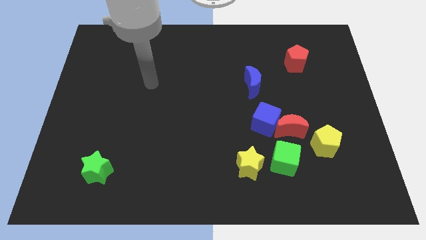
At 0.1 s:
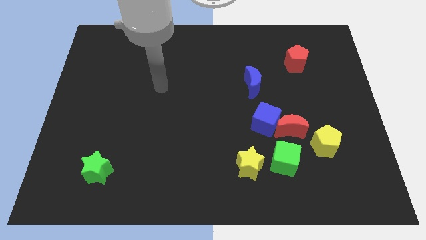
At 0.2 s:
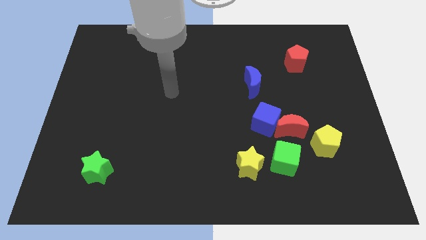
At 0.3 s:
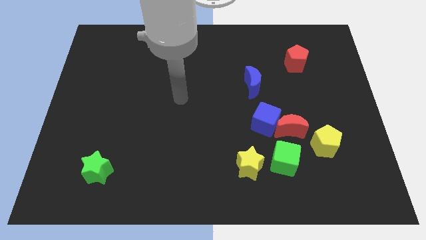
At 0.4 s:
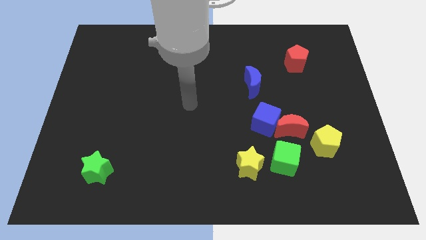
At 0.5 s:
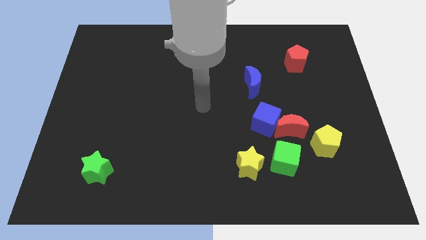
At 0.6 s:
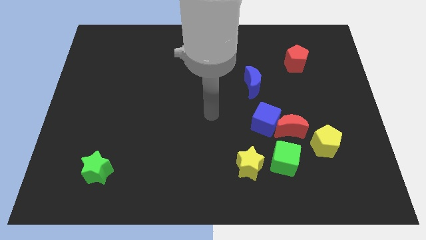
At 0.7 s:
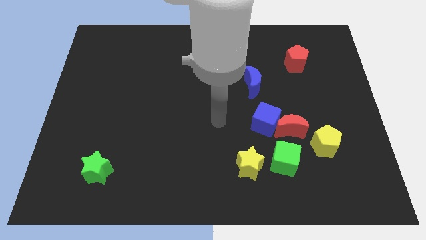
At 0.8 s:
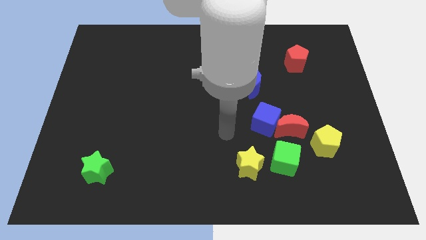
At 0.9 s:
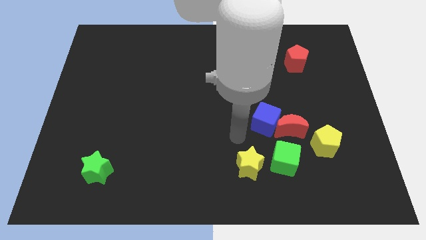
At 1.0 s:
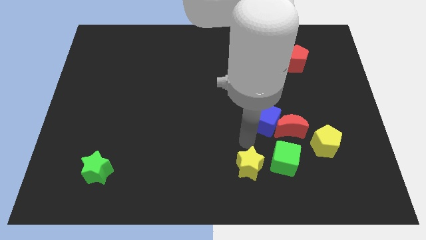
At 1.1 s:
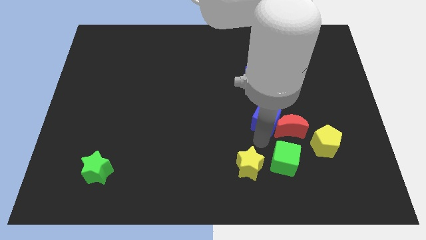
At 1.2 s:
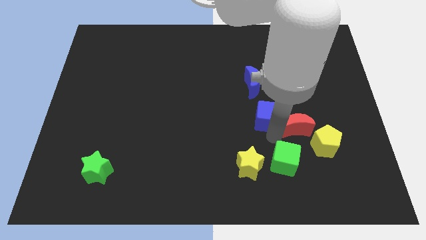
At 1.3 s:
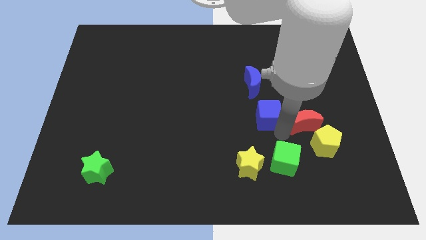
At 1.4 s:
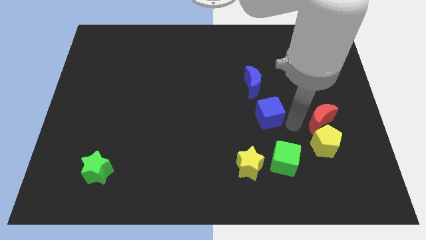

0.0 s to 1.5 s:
separate the blue cube from the red moon

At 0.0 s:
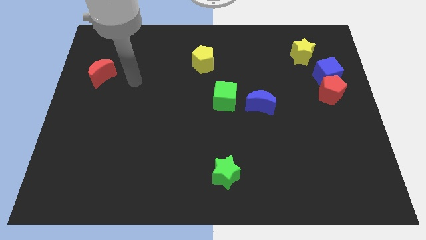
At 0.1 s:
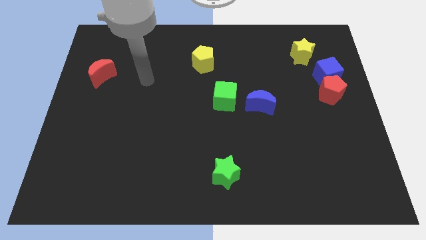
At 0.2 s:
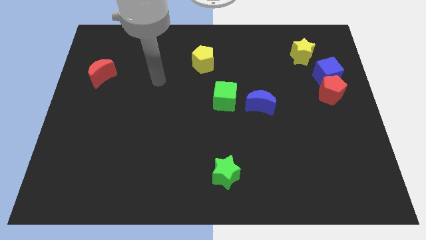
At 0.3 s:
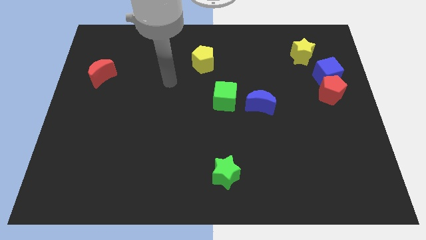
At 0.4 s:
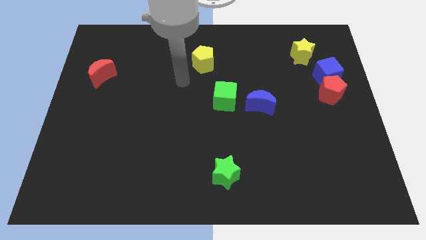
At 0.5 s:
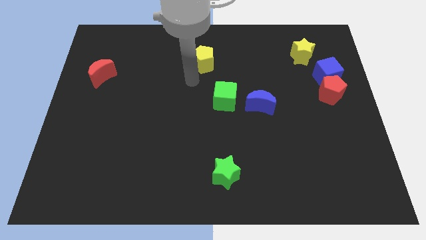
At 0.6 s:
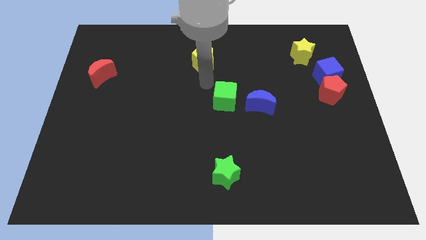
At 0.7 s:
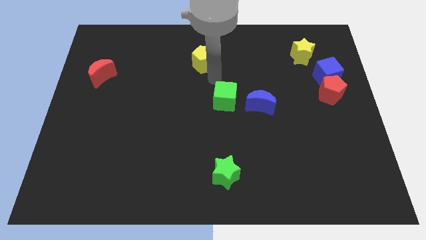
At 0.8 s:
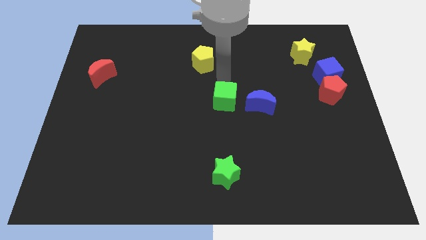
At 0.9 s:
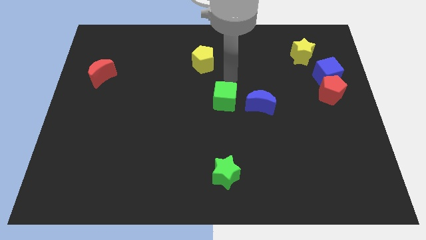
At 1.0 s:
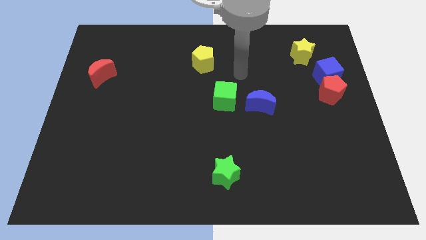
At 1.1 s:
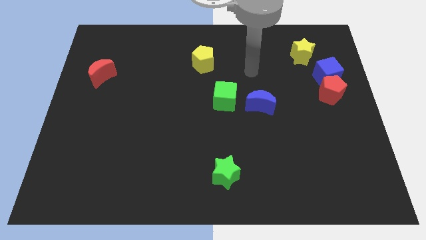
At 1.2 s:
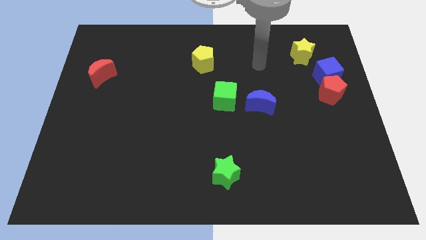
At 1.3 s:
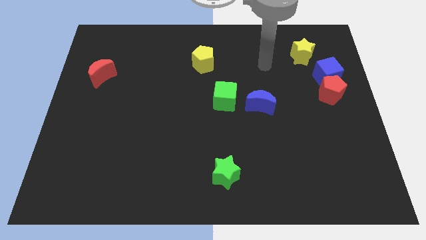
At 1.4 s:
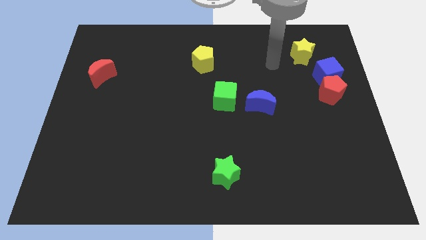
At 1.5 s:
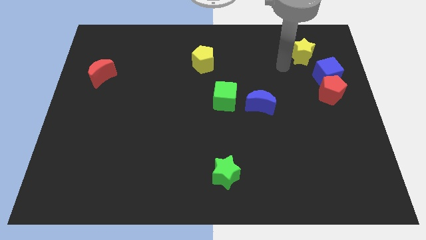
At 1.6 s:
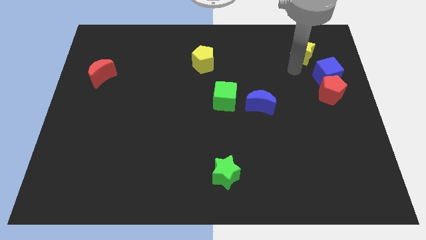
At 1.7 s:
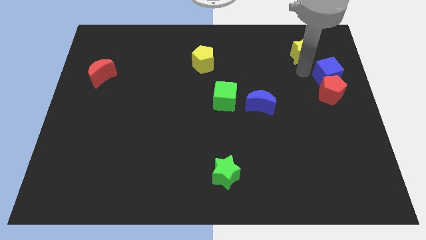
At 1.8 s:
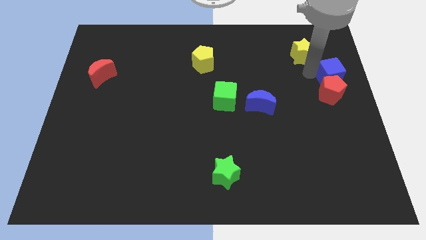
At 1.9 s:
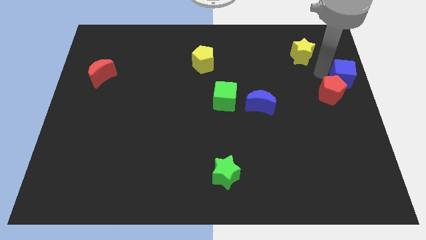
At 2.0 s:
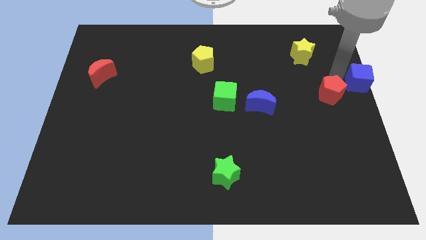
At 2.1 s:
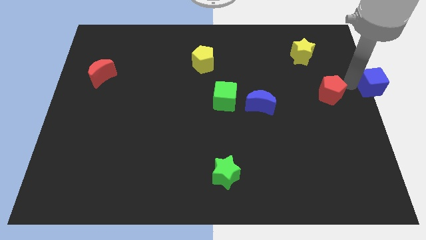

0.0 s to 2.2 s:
pull the red pentagon apart from the blue cube

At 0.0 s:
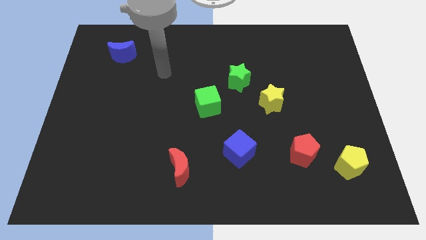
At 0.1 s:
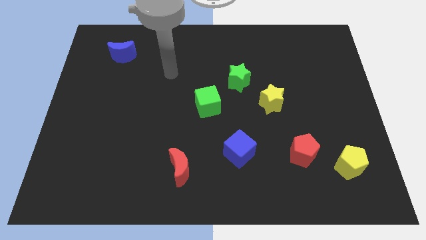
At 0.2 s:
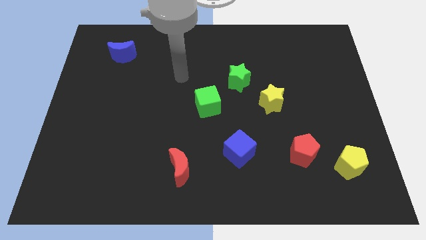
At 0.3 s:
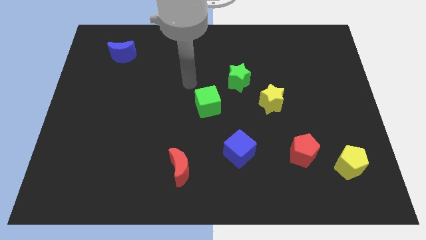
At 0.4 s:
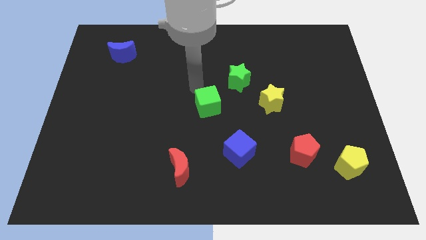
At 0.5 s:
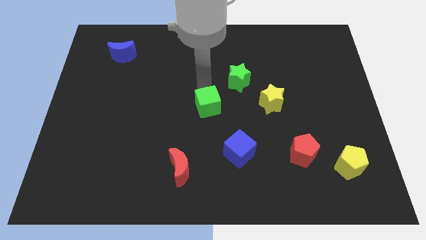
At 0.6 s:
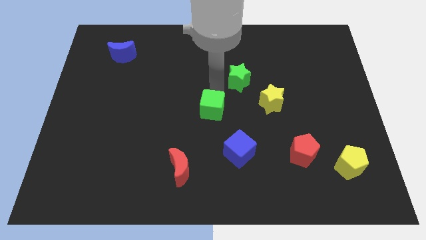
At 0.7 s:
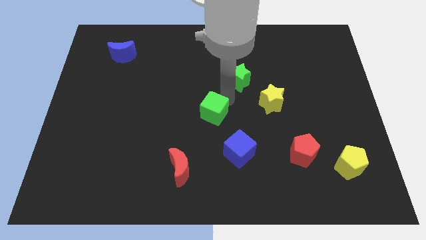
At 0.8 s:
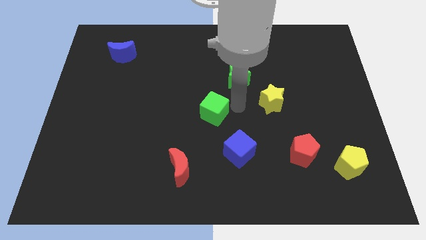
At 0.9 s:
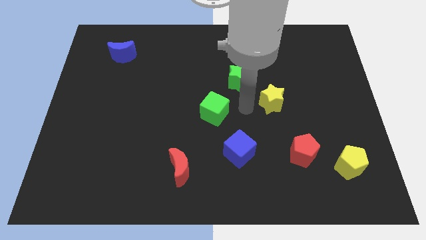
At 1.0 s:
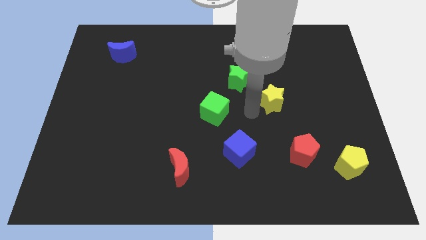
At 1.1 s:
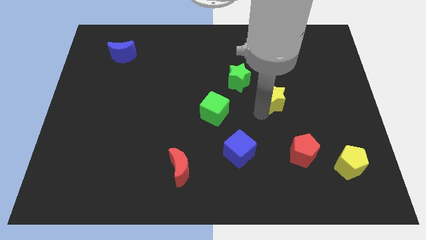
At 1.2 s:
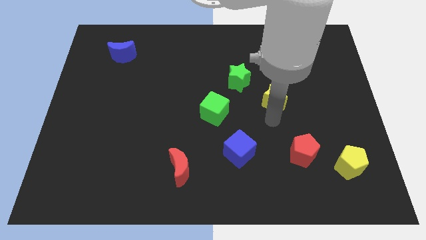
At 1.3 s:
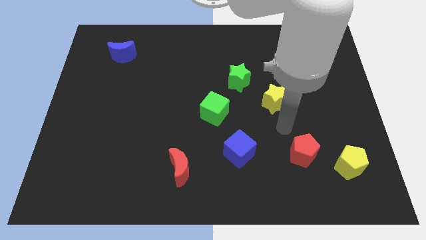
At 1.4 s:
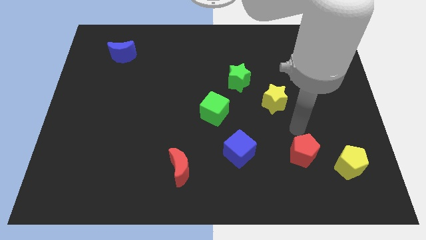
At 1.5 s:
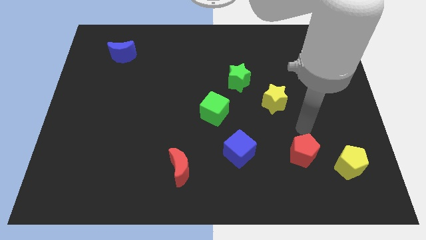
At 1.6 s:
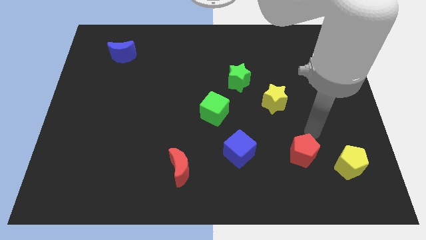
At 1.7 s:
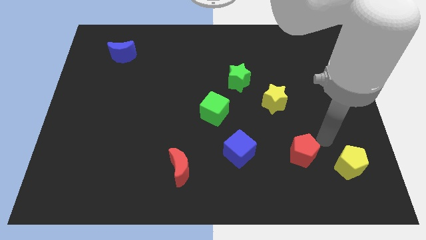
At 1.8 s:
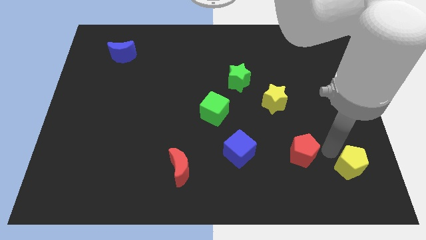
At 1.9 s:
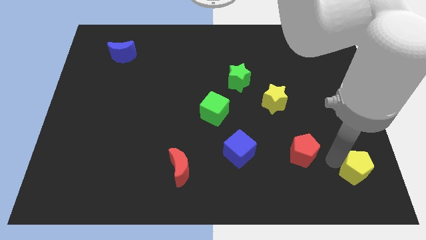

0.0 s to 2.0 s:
move the red pentagon away from the yellow pentagon

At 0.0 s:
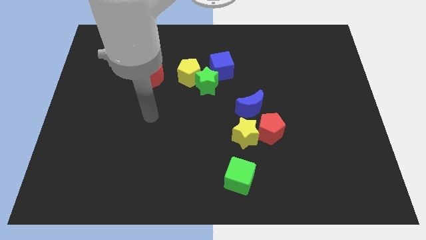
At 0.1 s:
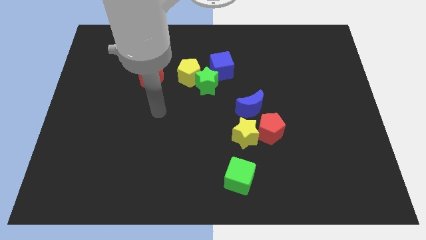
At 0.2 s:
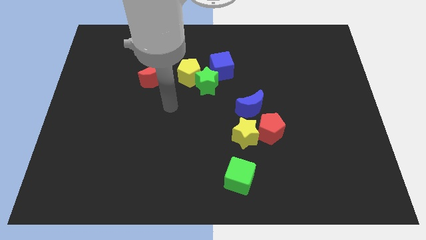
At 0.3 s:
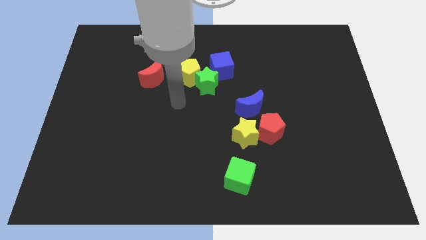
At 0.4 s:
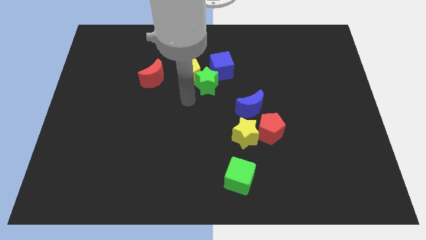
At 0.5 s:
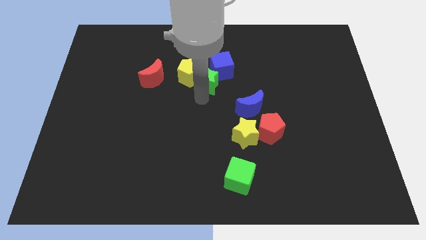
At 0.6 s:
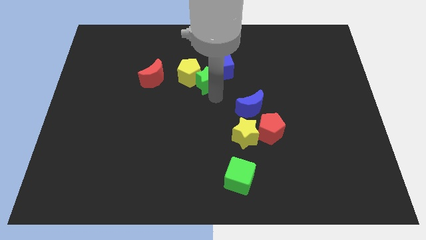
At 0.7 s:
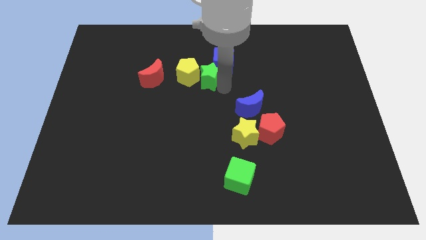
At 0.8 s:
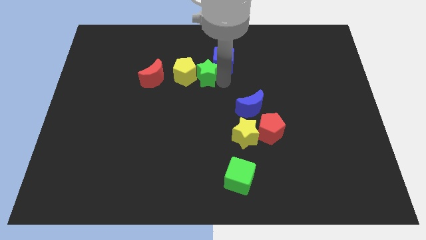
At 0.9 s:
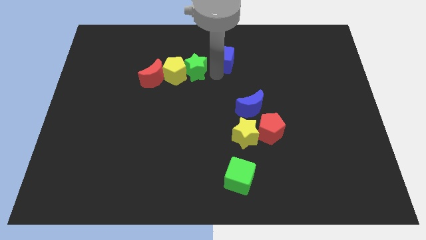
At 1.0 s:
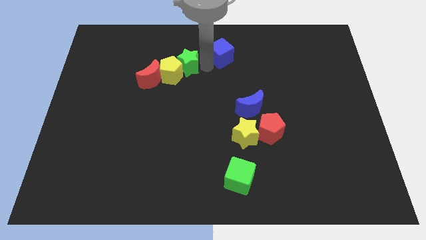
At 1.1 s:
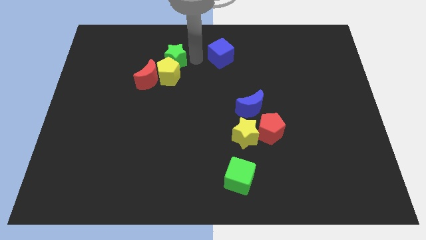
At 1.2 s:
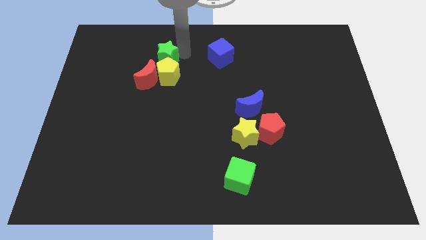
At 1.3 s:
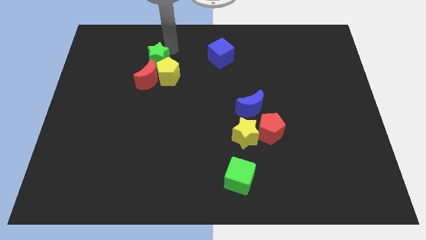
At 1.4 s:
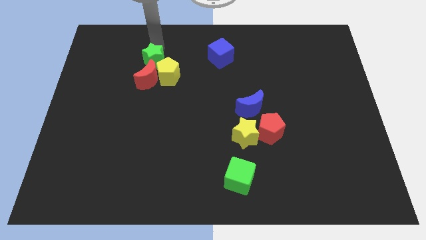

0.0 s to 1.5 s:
move the green star away from the yellow pentagon and blue cube

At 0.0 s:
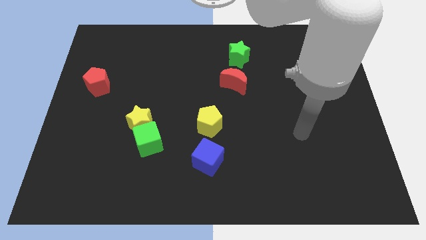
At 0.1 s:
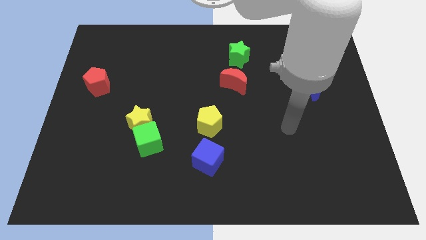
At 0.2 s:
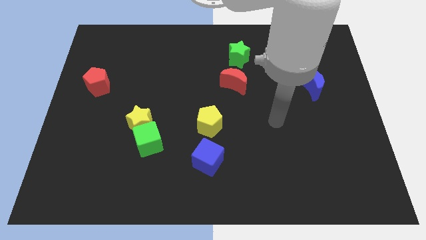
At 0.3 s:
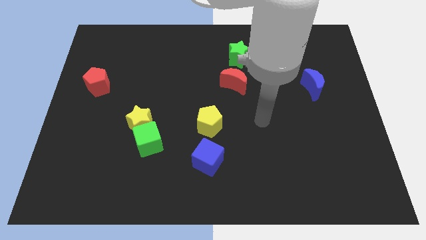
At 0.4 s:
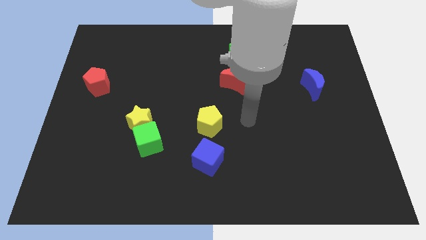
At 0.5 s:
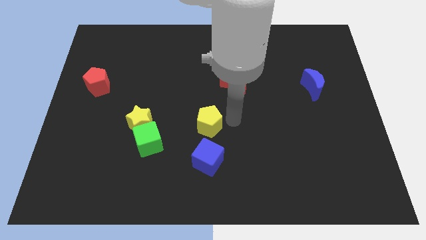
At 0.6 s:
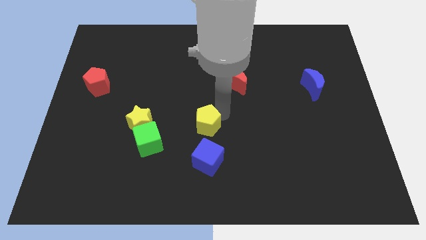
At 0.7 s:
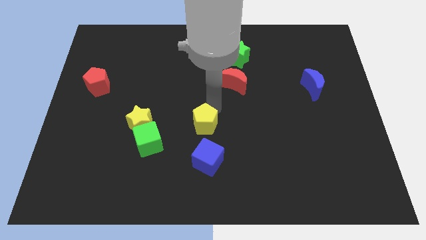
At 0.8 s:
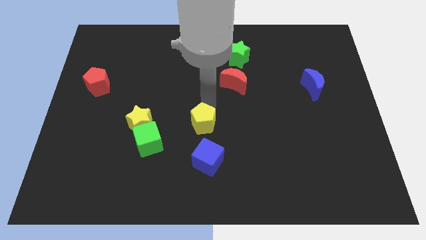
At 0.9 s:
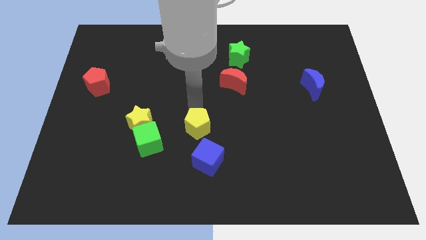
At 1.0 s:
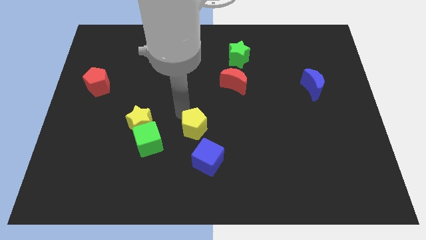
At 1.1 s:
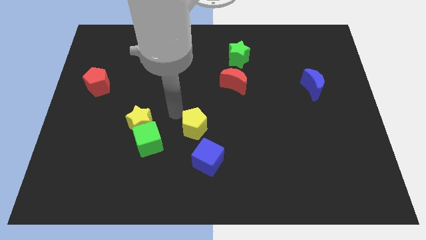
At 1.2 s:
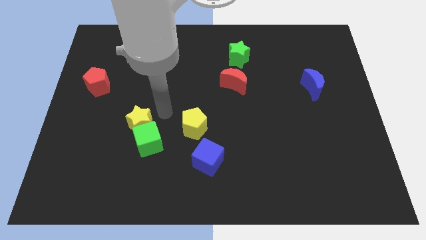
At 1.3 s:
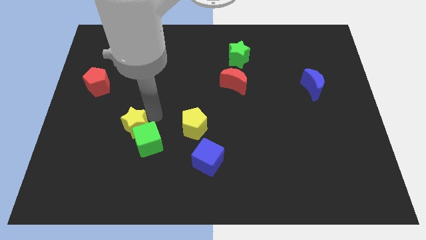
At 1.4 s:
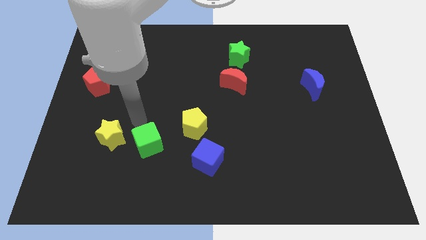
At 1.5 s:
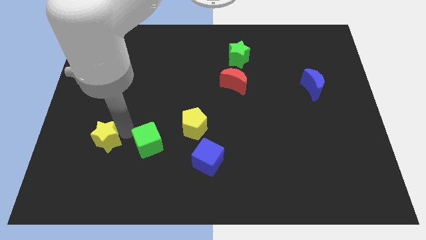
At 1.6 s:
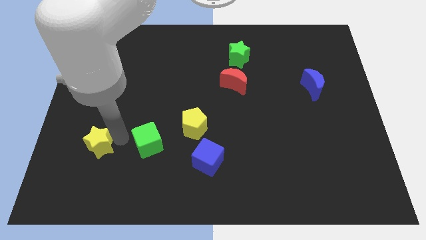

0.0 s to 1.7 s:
separate the green cube from the yellow star

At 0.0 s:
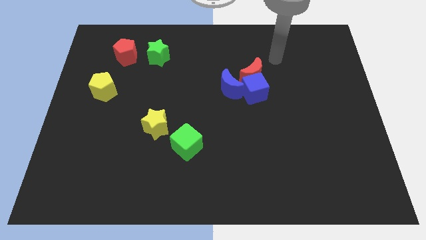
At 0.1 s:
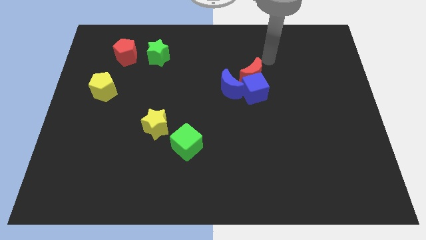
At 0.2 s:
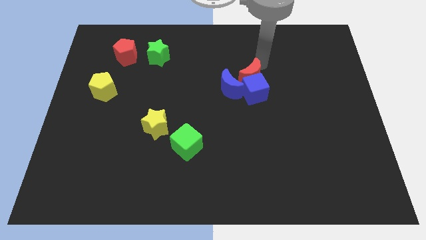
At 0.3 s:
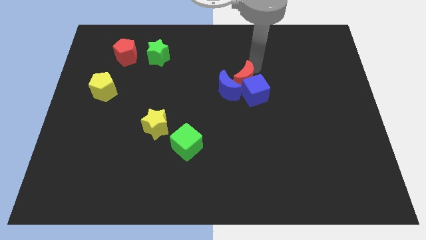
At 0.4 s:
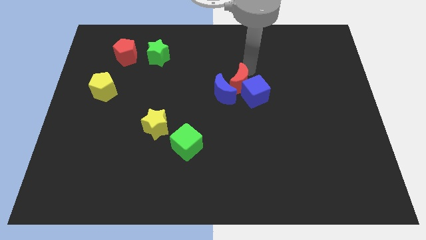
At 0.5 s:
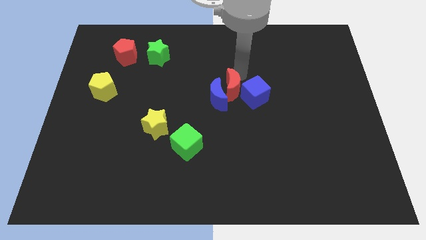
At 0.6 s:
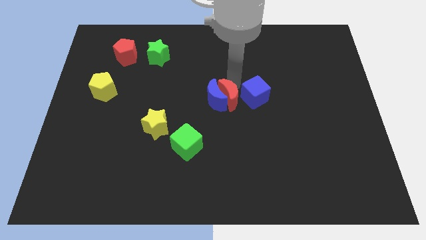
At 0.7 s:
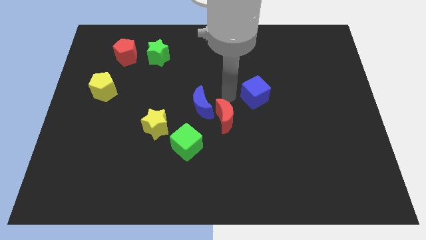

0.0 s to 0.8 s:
move the blue cube away from the red moon and blue moon
